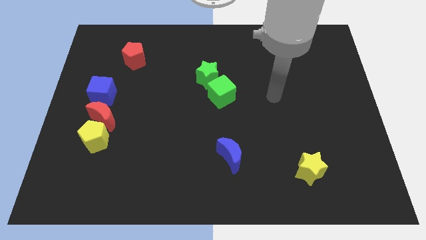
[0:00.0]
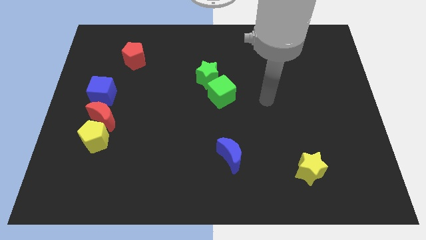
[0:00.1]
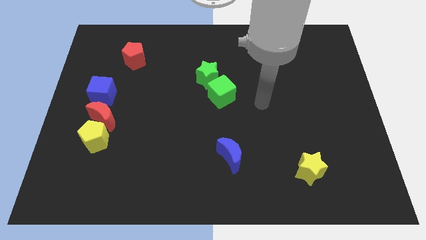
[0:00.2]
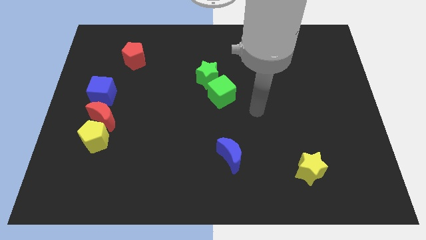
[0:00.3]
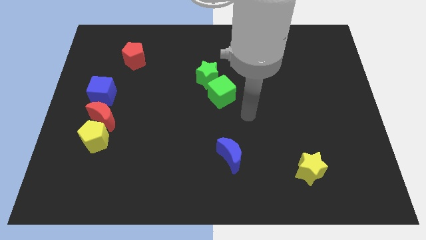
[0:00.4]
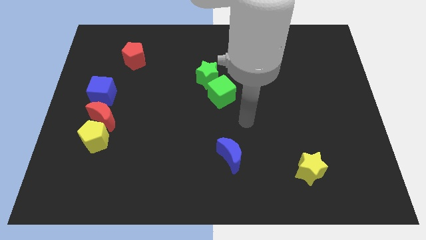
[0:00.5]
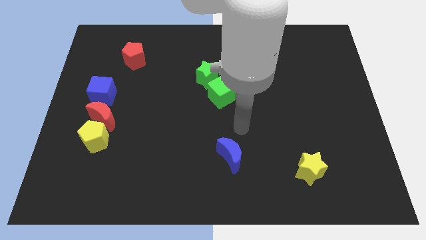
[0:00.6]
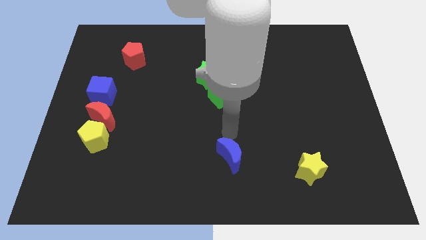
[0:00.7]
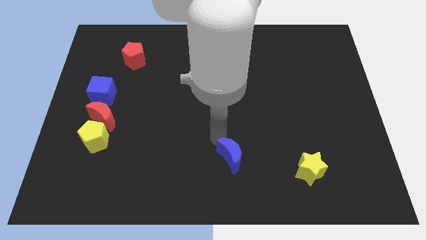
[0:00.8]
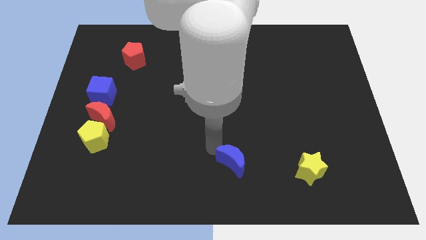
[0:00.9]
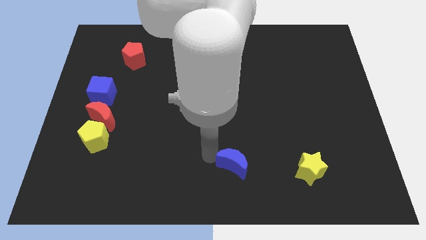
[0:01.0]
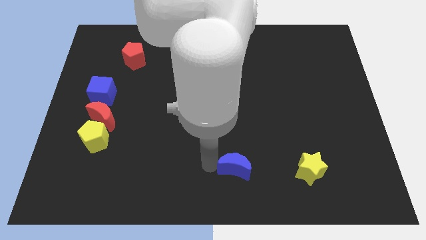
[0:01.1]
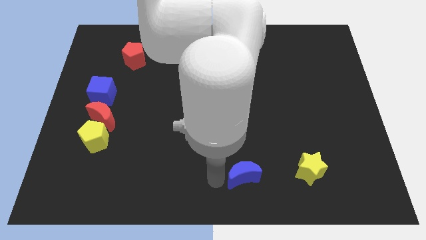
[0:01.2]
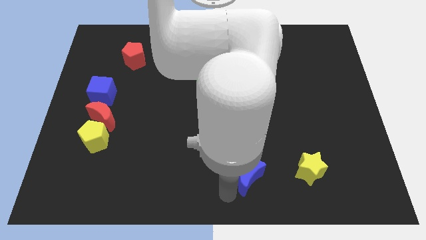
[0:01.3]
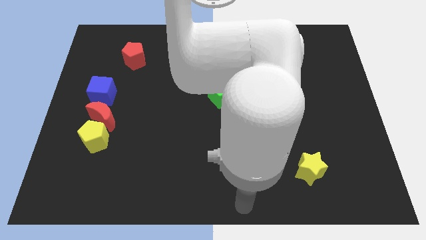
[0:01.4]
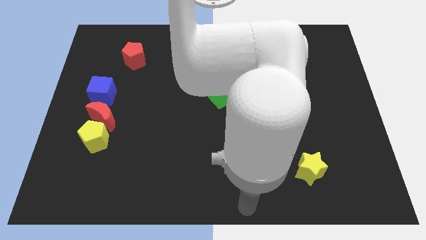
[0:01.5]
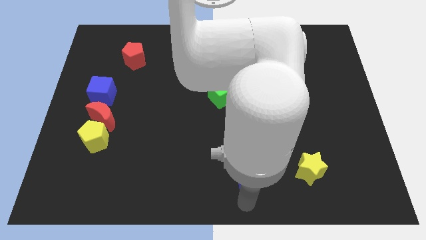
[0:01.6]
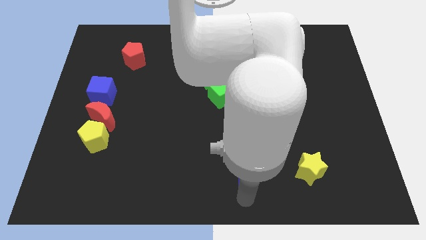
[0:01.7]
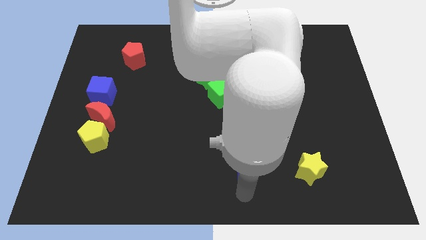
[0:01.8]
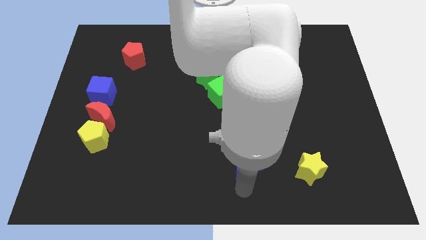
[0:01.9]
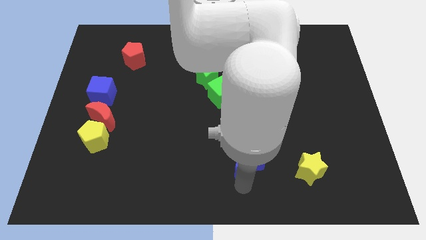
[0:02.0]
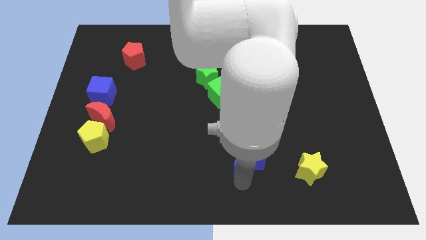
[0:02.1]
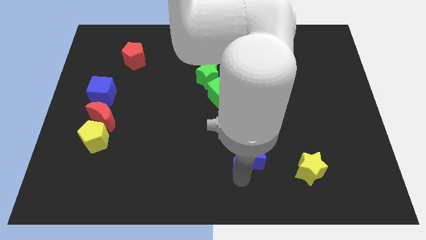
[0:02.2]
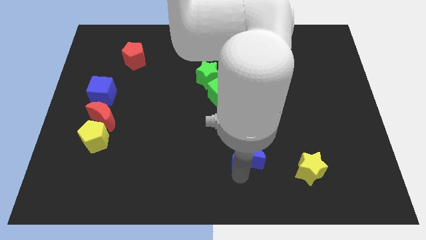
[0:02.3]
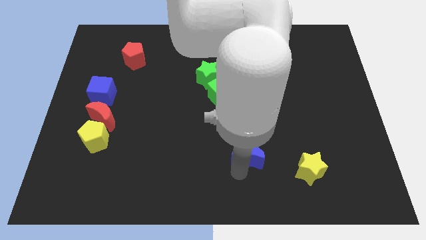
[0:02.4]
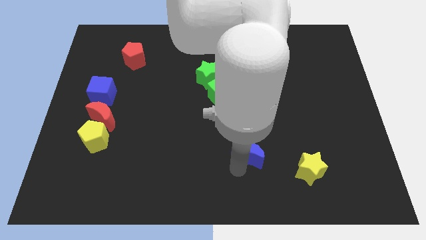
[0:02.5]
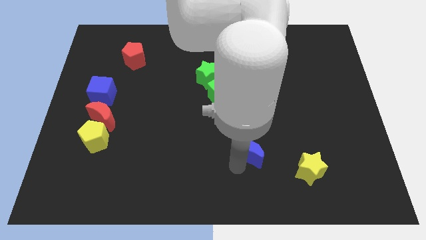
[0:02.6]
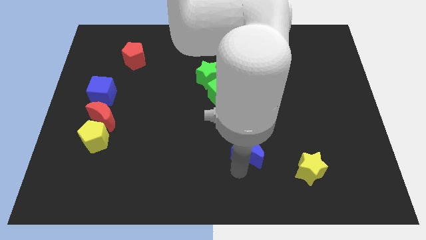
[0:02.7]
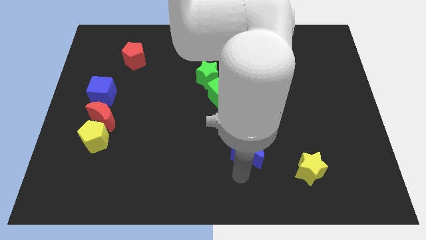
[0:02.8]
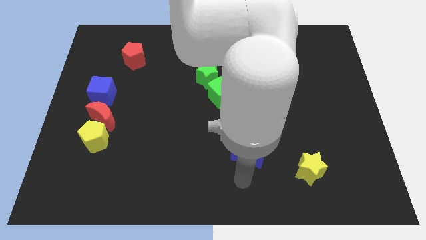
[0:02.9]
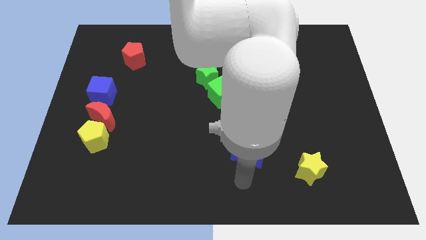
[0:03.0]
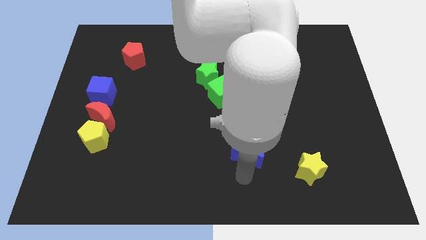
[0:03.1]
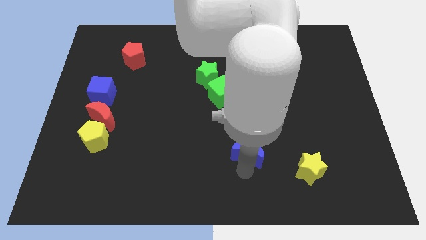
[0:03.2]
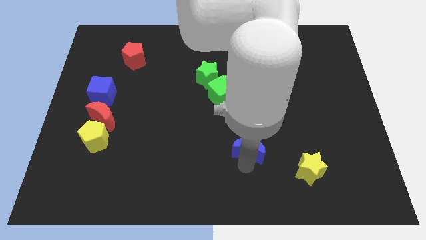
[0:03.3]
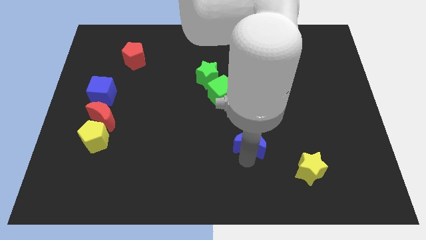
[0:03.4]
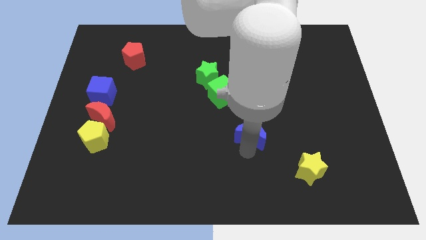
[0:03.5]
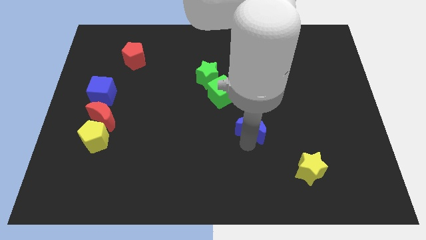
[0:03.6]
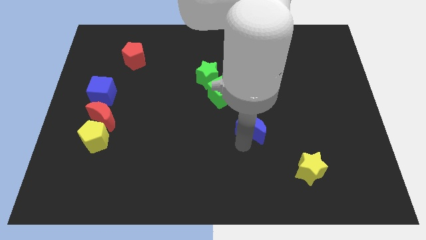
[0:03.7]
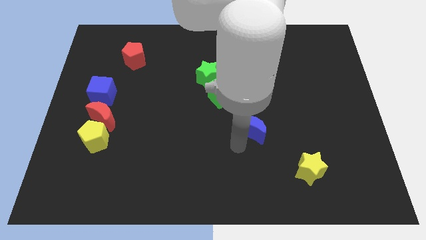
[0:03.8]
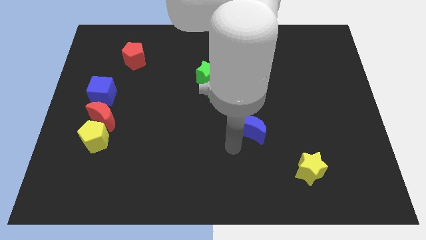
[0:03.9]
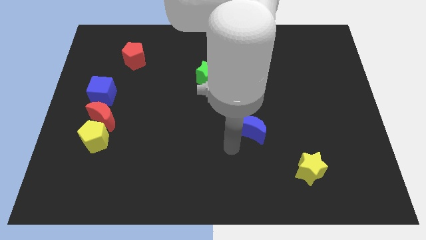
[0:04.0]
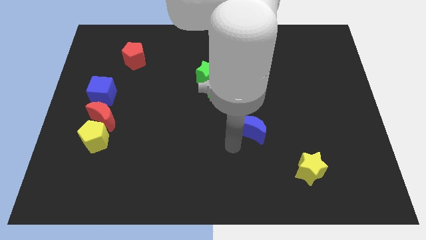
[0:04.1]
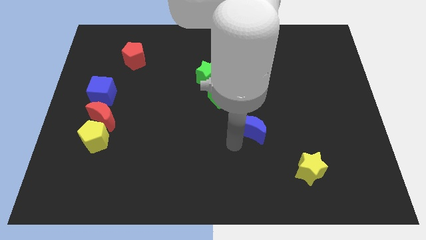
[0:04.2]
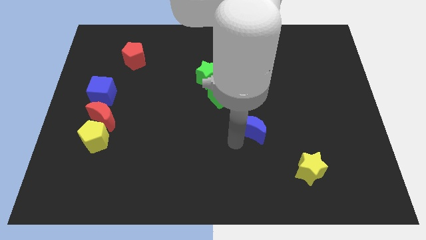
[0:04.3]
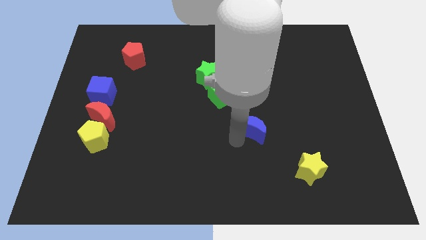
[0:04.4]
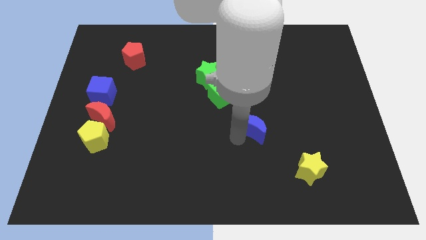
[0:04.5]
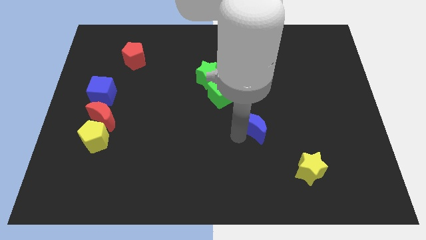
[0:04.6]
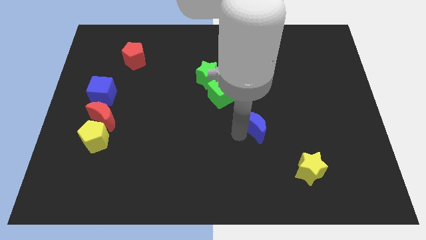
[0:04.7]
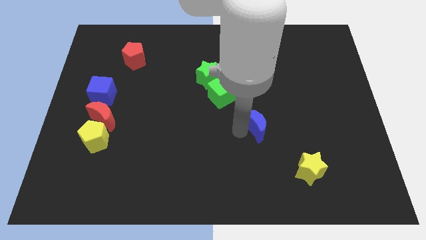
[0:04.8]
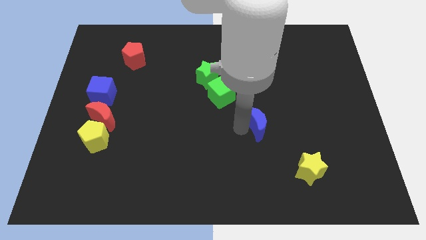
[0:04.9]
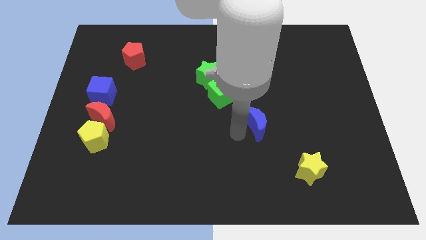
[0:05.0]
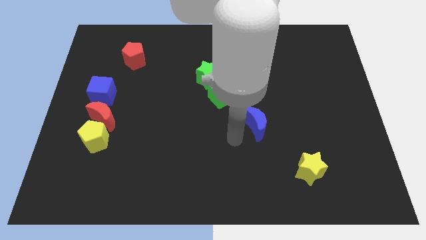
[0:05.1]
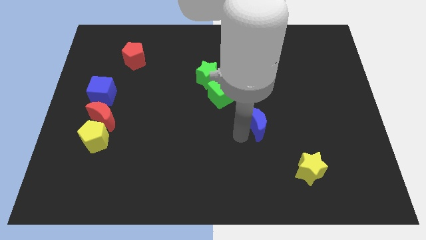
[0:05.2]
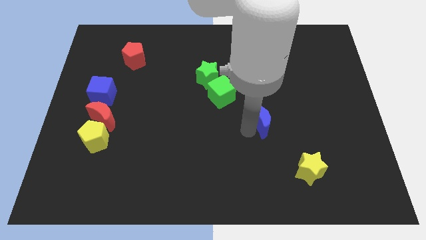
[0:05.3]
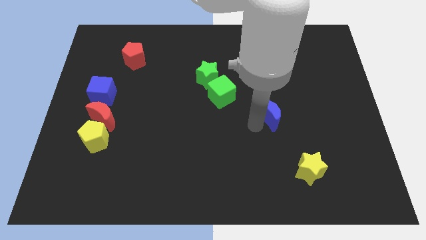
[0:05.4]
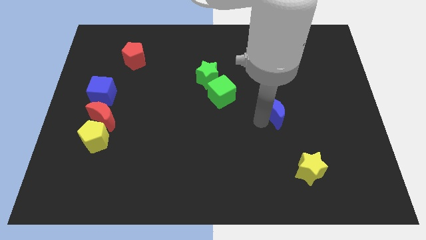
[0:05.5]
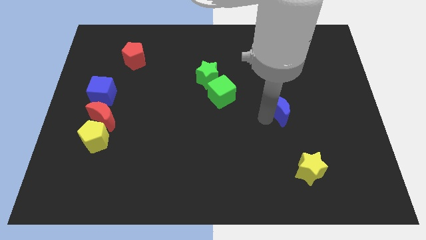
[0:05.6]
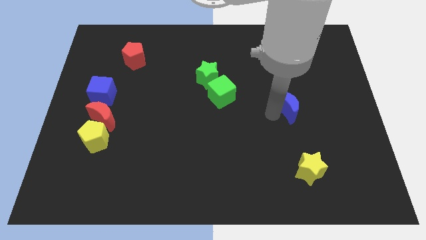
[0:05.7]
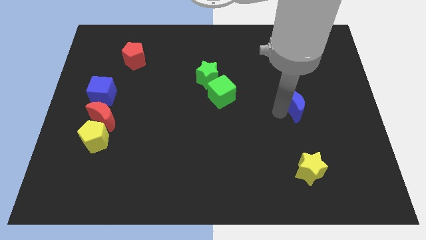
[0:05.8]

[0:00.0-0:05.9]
slide the blue moon diagonally upwards and to the right

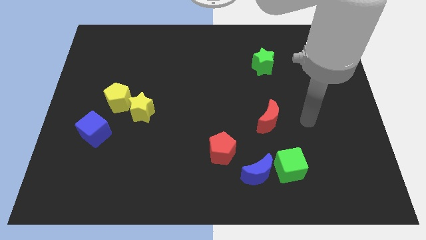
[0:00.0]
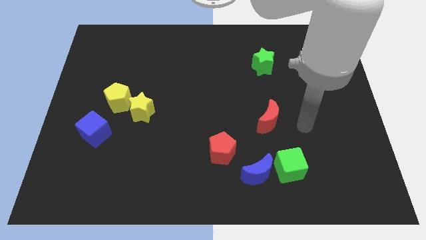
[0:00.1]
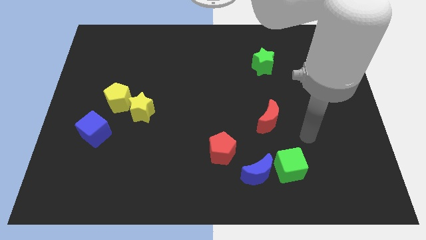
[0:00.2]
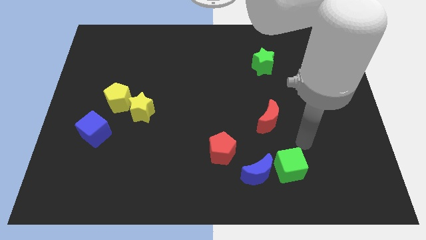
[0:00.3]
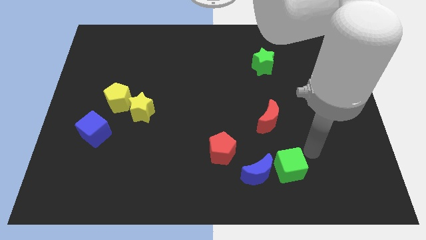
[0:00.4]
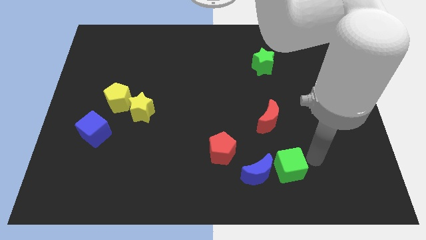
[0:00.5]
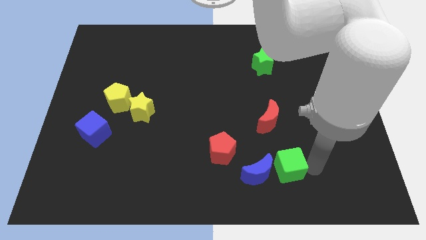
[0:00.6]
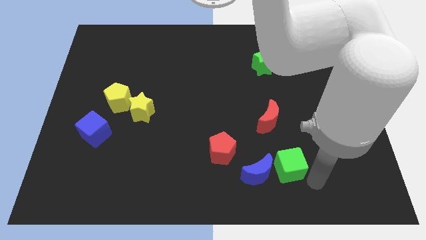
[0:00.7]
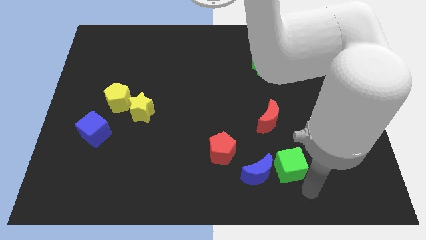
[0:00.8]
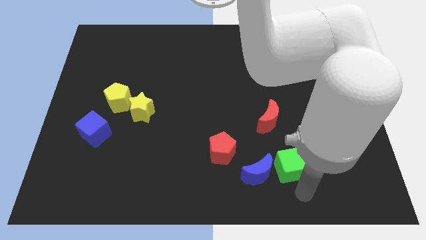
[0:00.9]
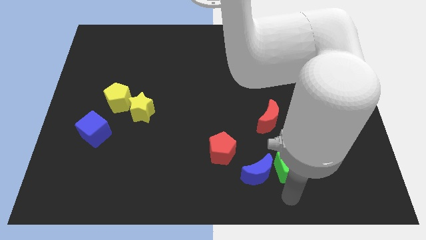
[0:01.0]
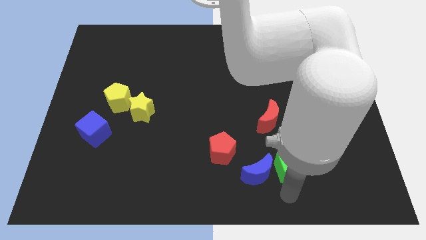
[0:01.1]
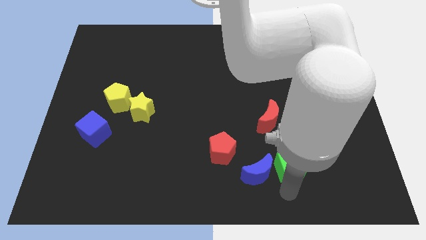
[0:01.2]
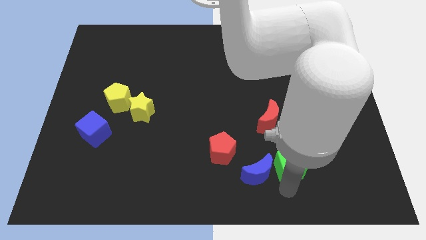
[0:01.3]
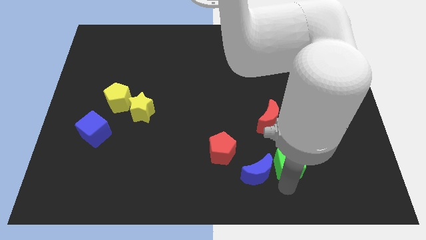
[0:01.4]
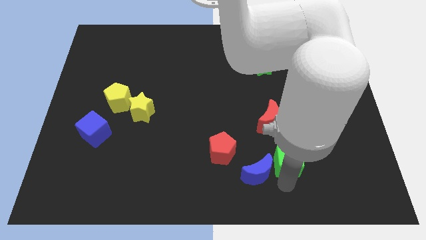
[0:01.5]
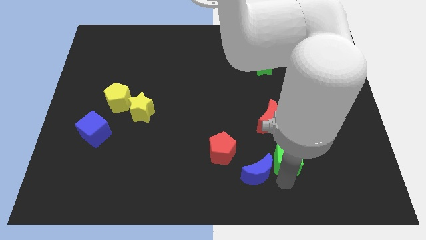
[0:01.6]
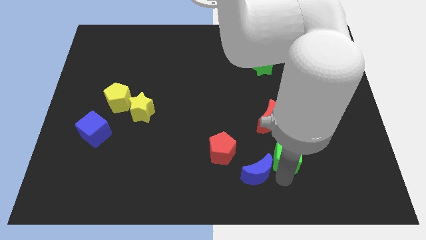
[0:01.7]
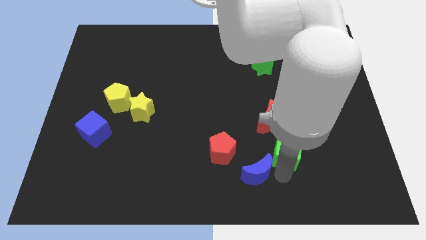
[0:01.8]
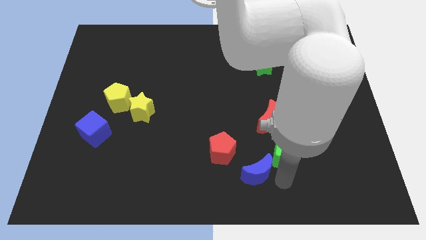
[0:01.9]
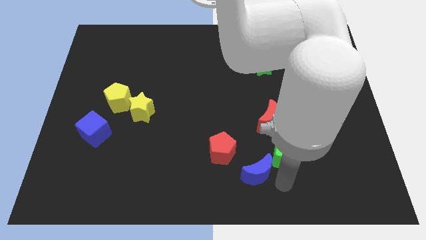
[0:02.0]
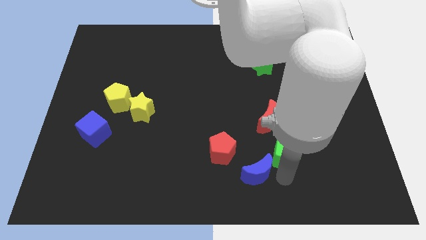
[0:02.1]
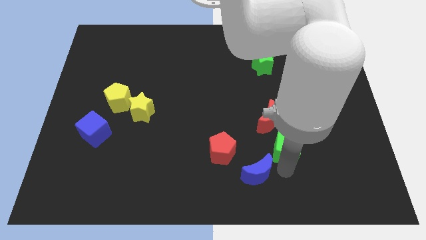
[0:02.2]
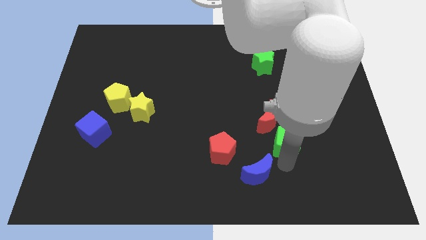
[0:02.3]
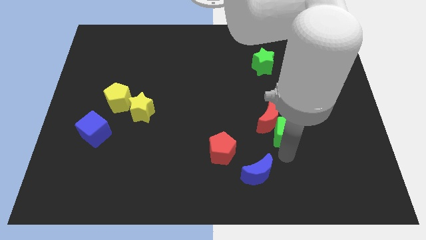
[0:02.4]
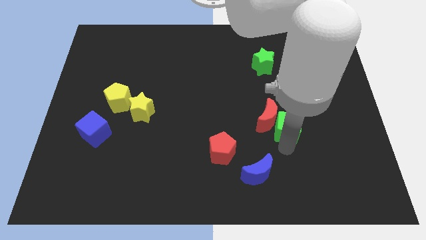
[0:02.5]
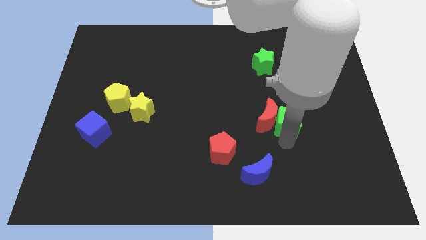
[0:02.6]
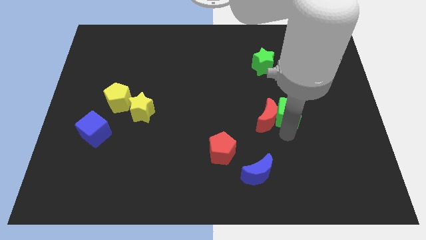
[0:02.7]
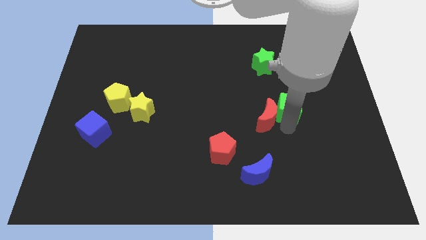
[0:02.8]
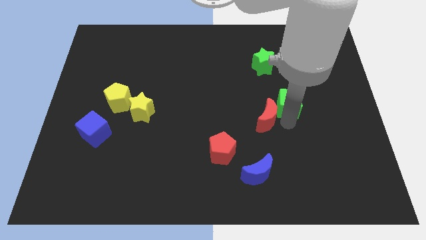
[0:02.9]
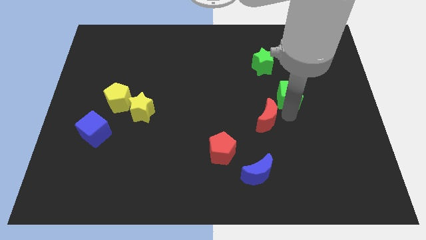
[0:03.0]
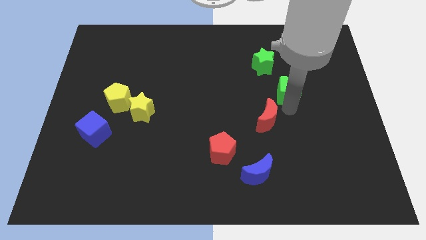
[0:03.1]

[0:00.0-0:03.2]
move the green cube upwards
